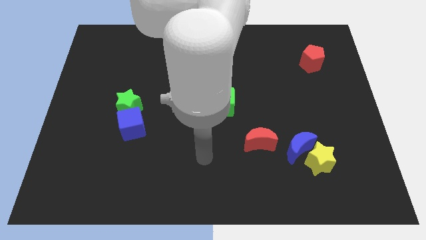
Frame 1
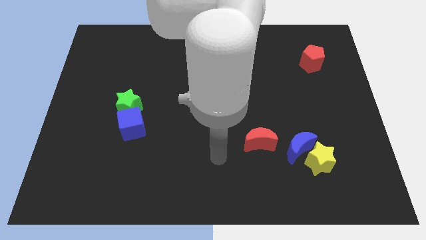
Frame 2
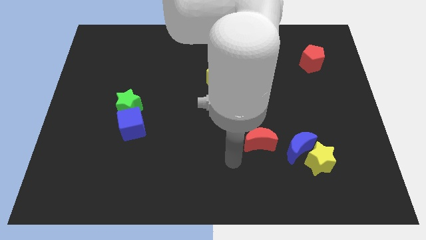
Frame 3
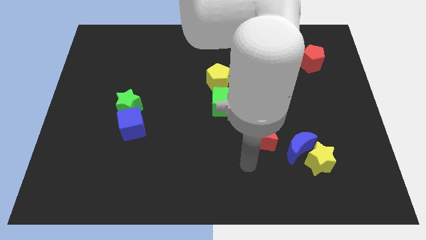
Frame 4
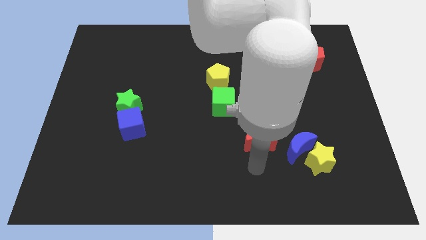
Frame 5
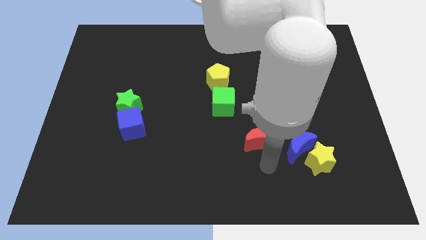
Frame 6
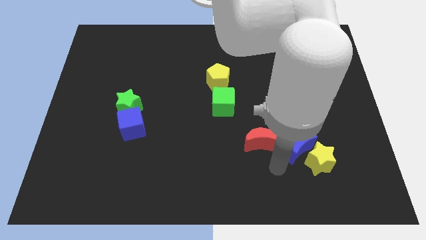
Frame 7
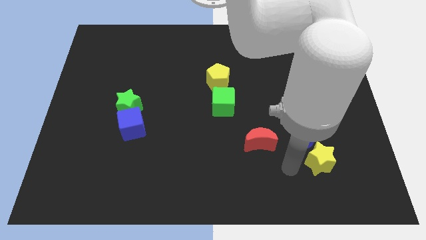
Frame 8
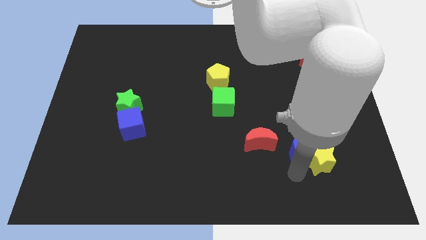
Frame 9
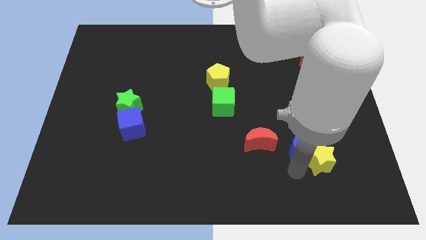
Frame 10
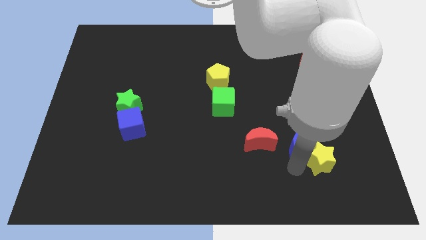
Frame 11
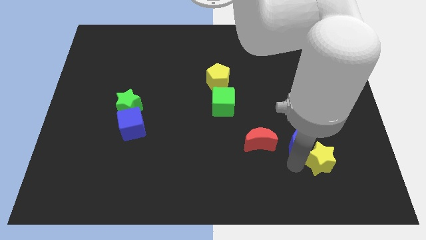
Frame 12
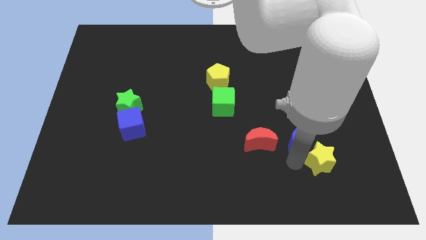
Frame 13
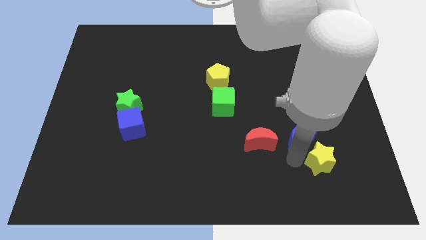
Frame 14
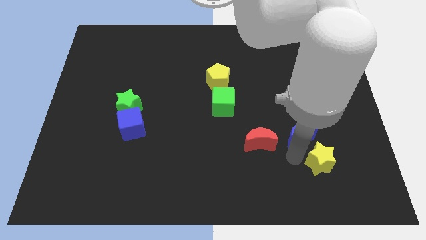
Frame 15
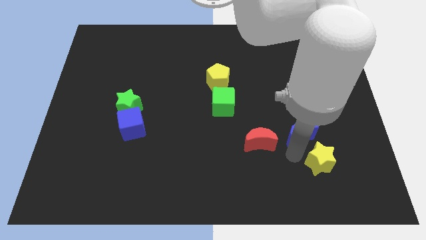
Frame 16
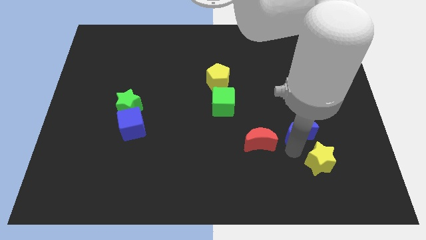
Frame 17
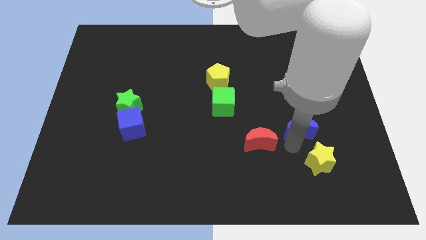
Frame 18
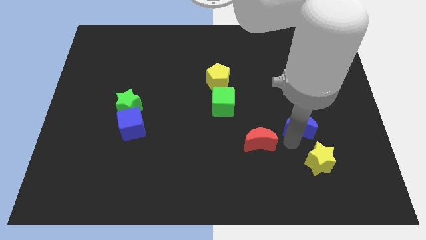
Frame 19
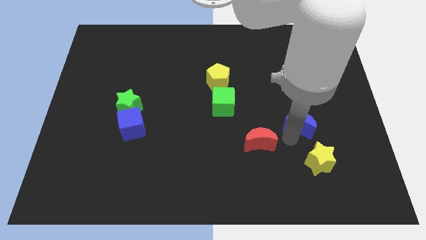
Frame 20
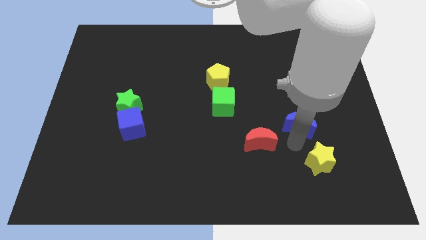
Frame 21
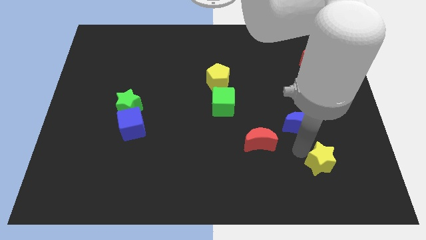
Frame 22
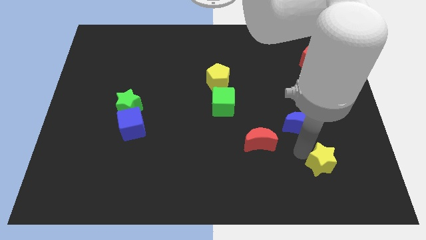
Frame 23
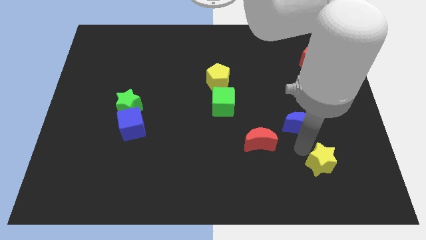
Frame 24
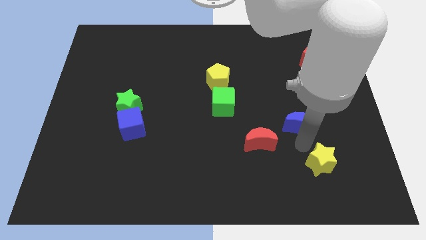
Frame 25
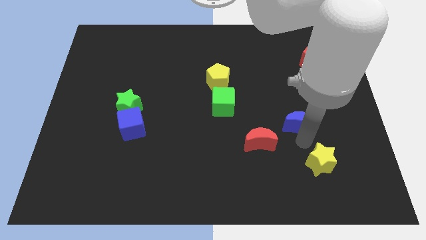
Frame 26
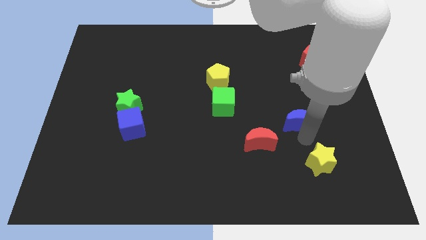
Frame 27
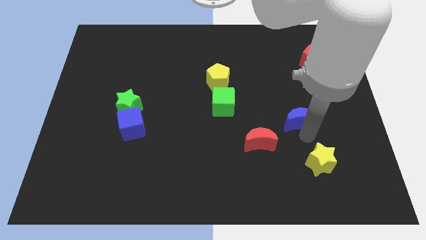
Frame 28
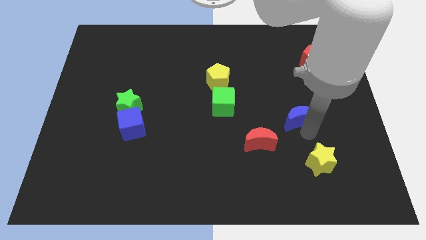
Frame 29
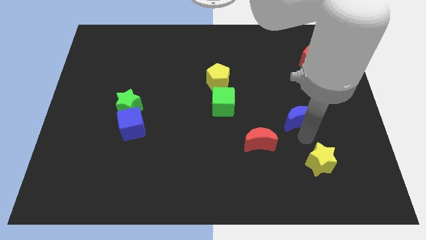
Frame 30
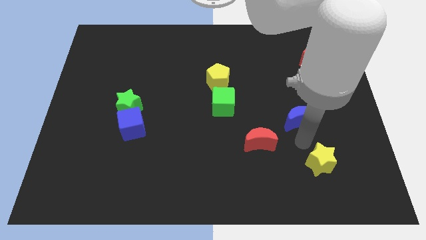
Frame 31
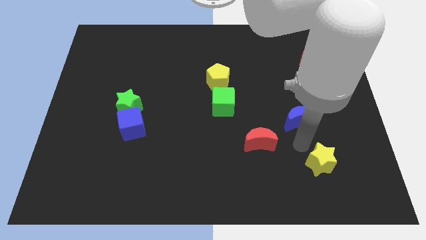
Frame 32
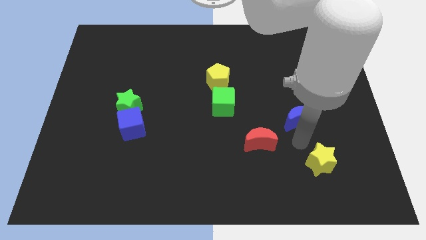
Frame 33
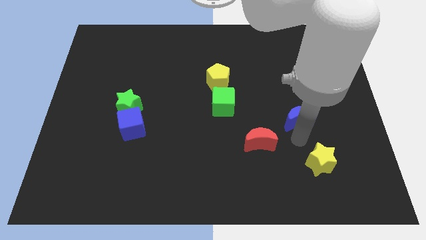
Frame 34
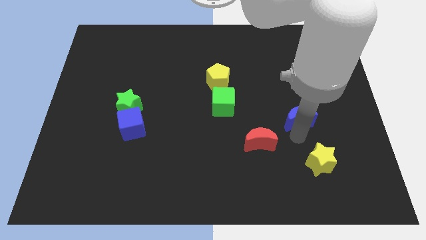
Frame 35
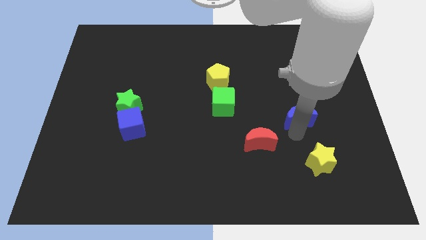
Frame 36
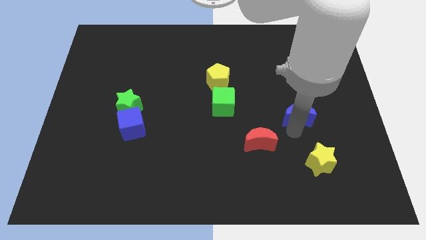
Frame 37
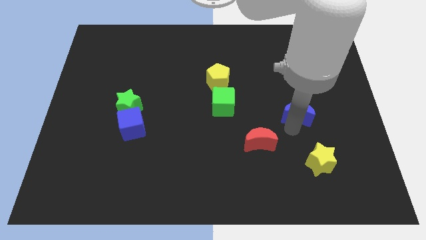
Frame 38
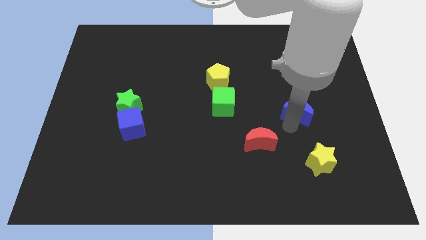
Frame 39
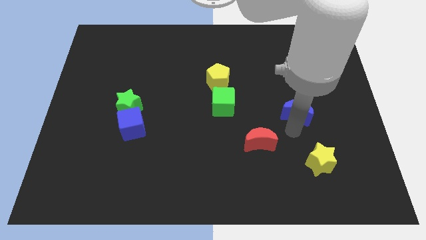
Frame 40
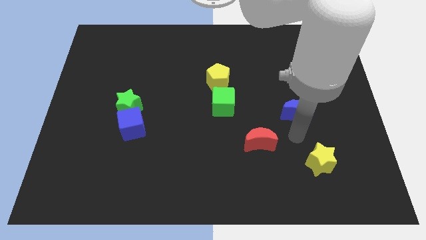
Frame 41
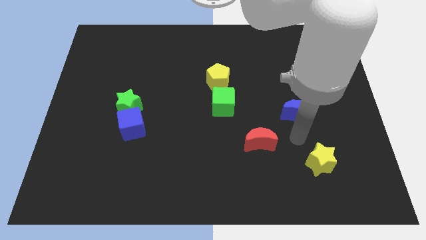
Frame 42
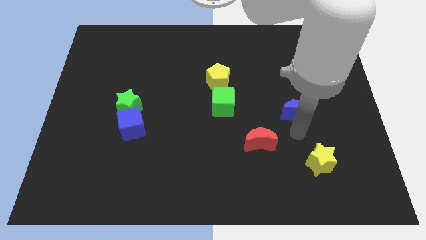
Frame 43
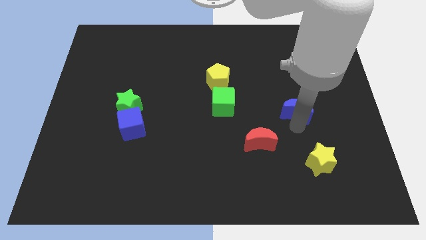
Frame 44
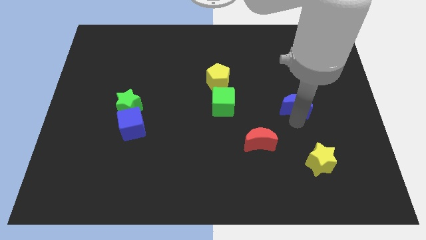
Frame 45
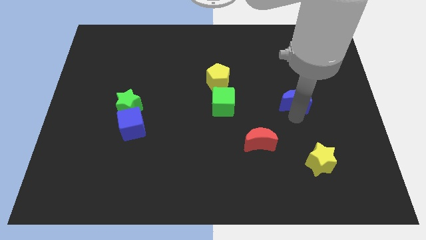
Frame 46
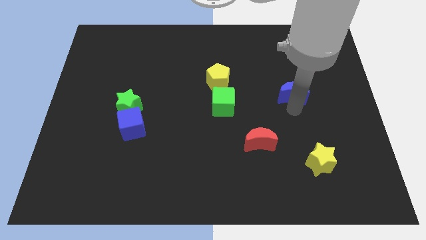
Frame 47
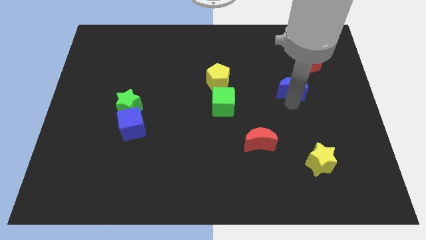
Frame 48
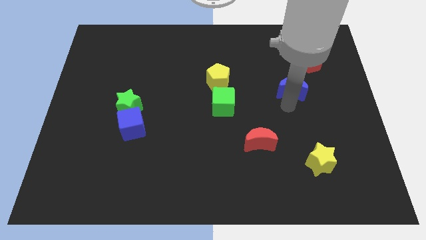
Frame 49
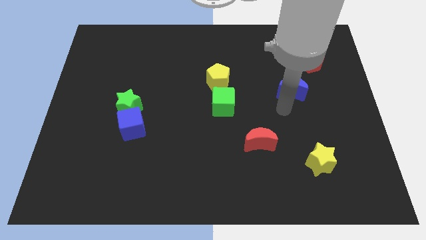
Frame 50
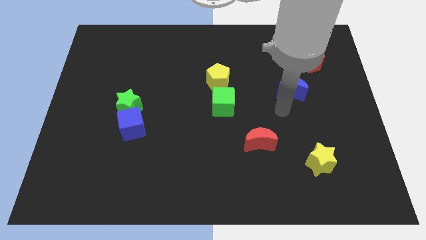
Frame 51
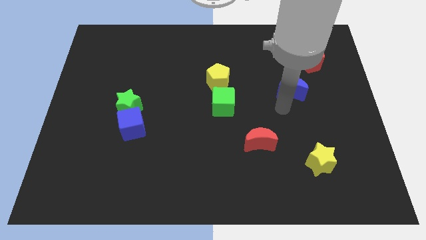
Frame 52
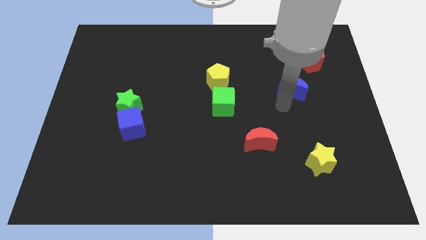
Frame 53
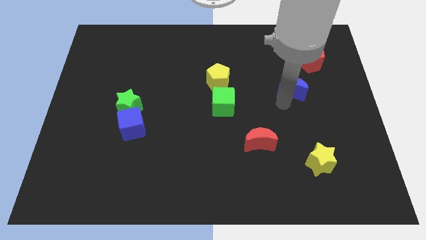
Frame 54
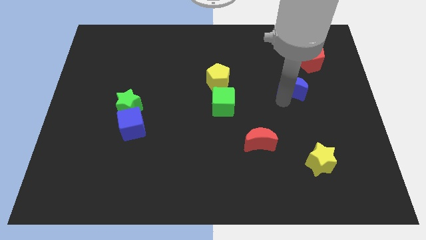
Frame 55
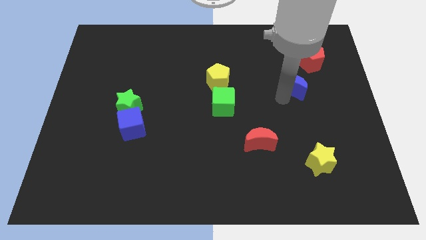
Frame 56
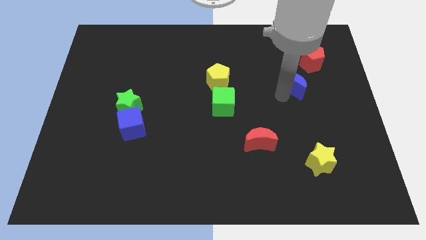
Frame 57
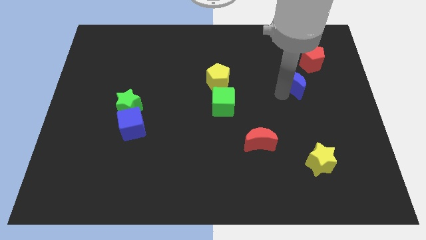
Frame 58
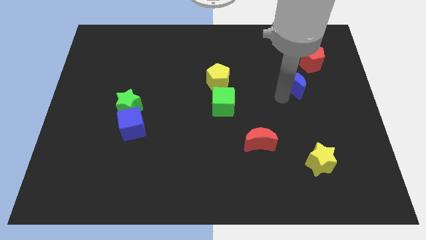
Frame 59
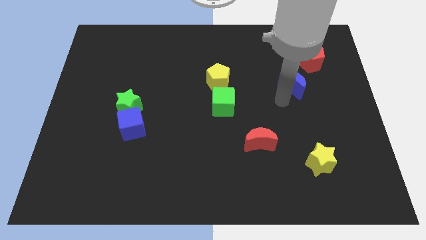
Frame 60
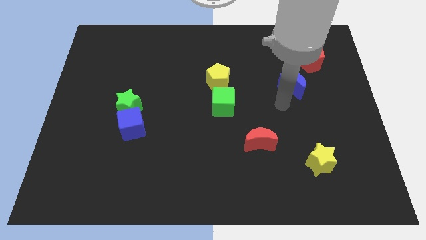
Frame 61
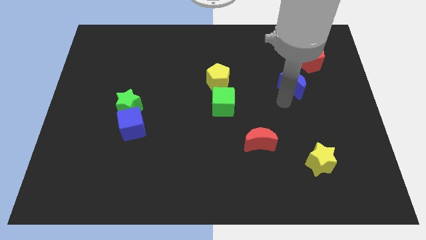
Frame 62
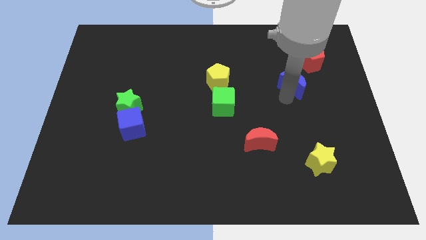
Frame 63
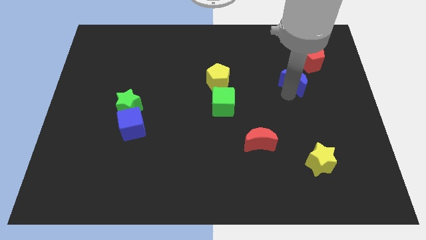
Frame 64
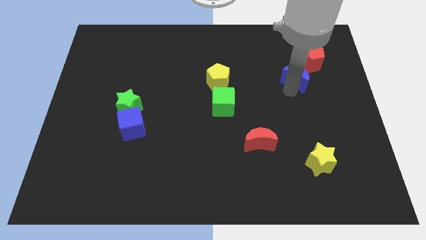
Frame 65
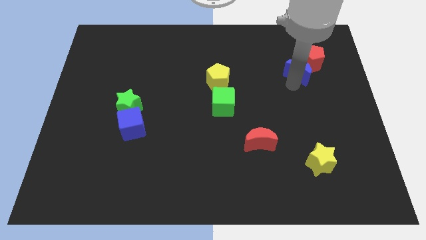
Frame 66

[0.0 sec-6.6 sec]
put the blue moon to the red pentagon

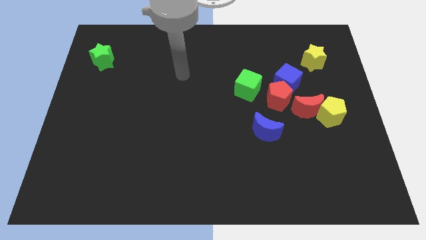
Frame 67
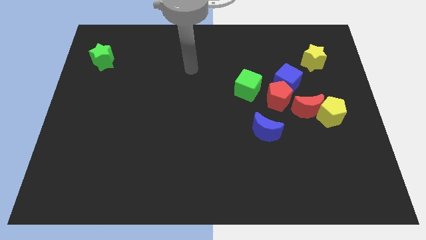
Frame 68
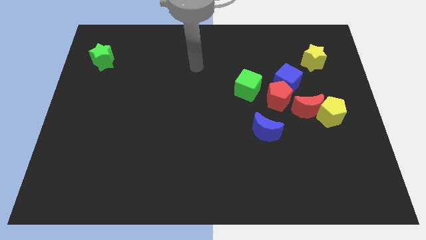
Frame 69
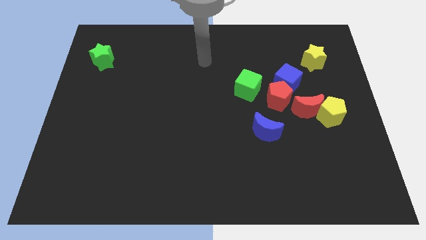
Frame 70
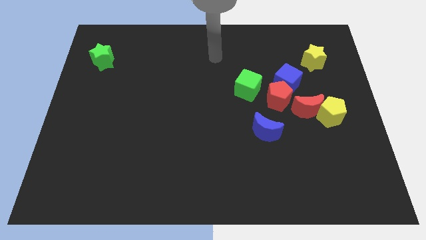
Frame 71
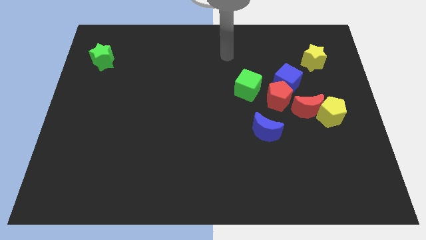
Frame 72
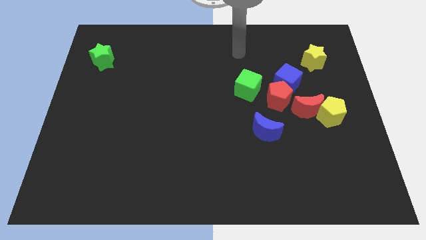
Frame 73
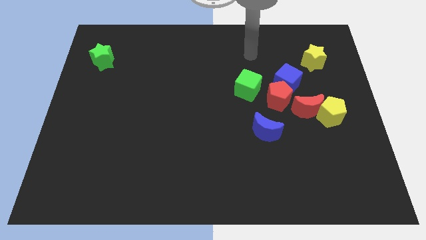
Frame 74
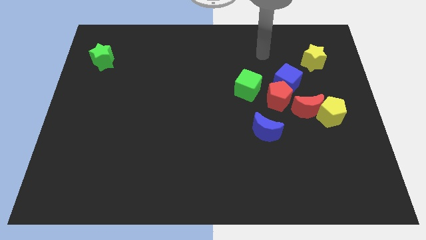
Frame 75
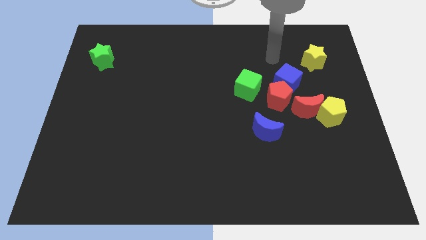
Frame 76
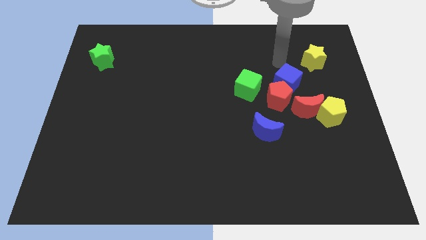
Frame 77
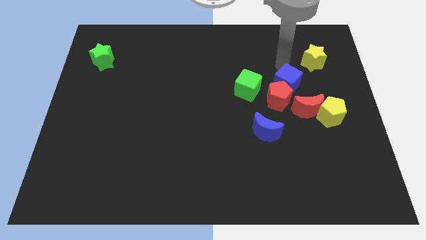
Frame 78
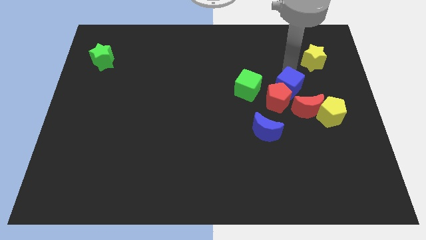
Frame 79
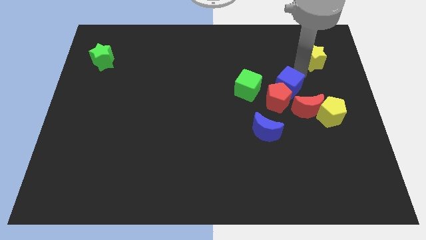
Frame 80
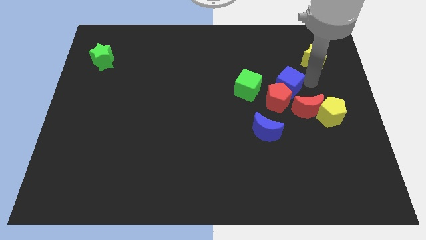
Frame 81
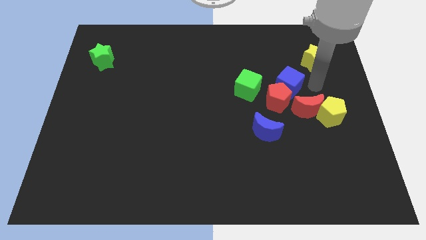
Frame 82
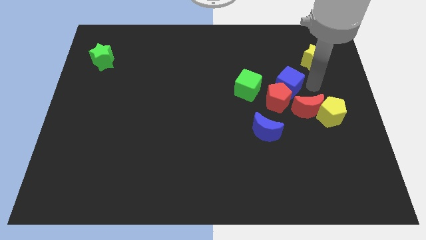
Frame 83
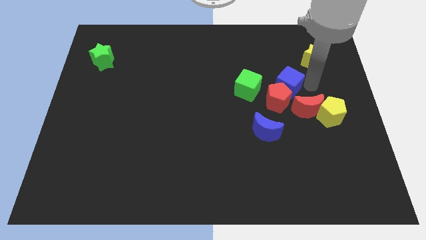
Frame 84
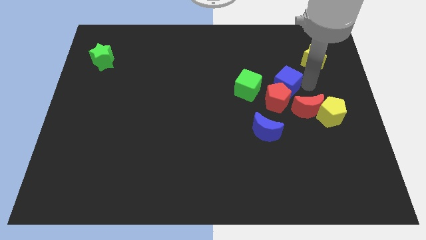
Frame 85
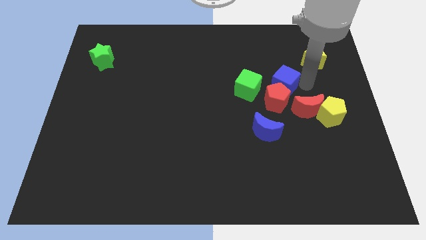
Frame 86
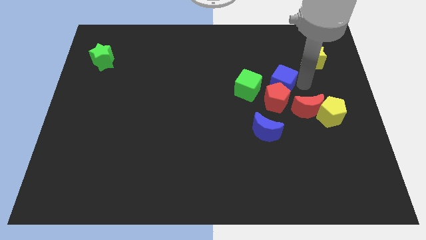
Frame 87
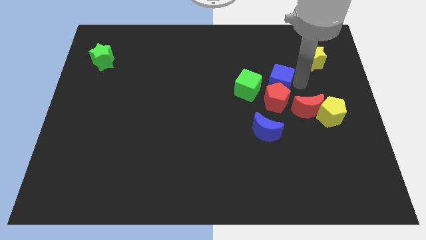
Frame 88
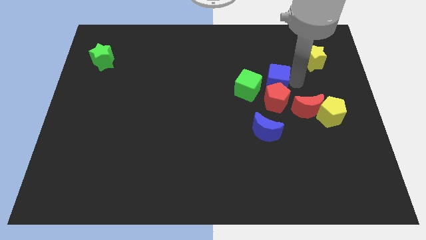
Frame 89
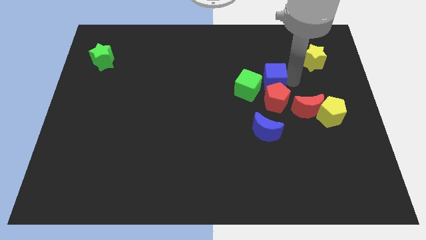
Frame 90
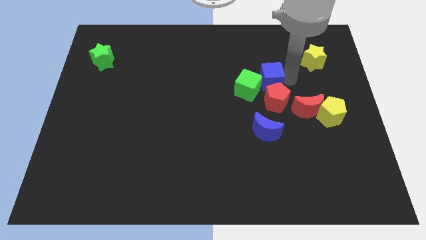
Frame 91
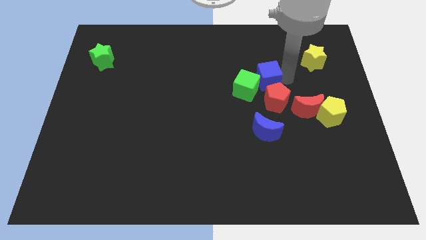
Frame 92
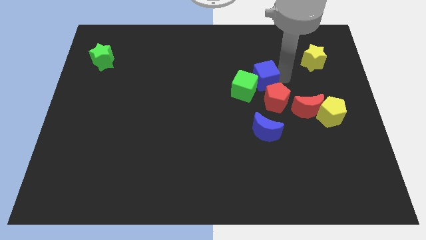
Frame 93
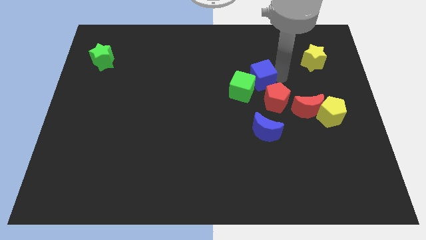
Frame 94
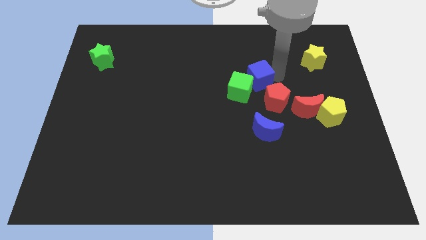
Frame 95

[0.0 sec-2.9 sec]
push the blue cube to the green cube
